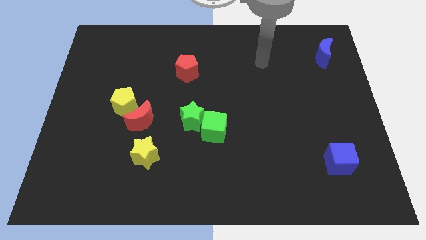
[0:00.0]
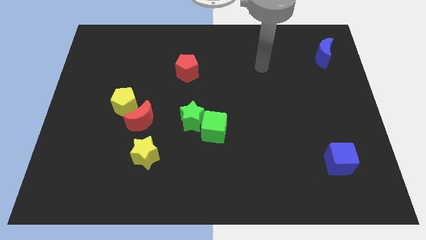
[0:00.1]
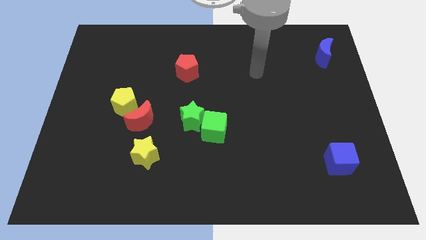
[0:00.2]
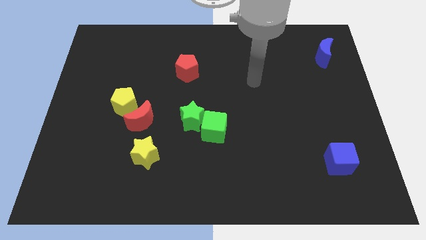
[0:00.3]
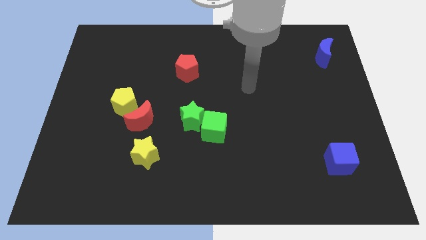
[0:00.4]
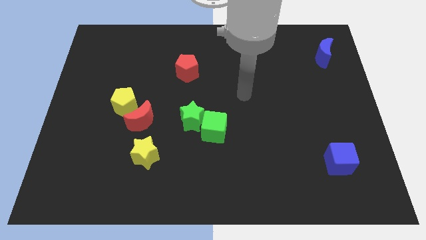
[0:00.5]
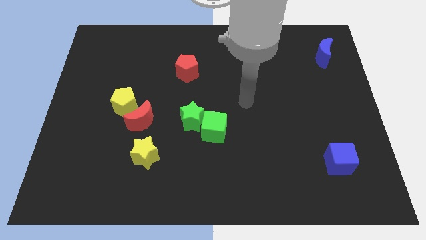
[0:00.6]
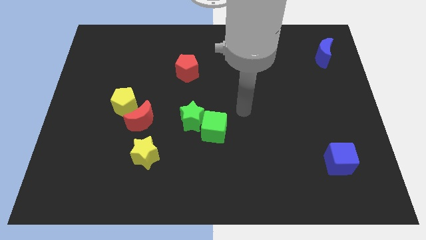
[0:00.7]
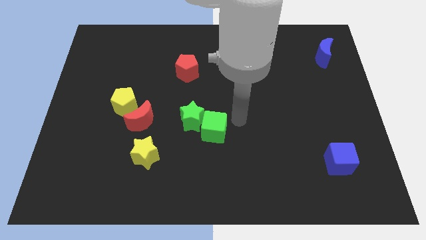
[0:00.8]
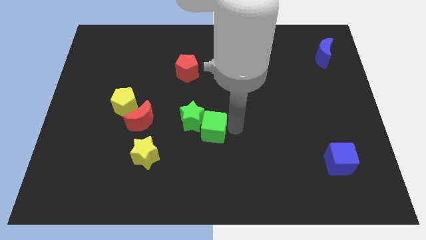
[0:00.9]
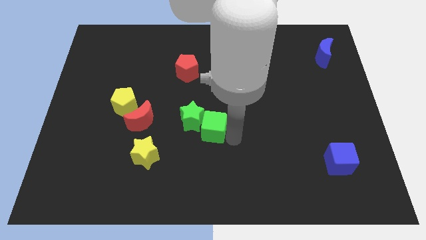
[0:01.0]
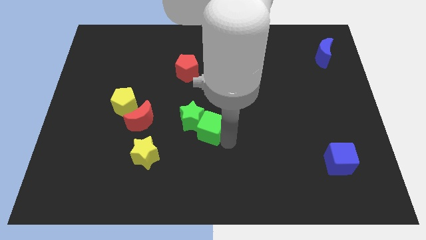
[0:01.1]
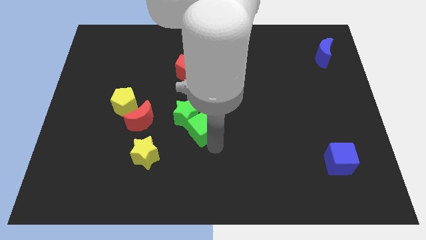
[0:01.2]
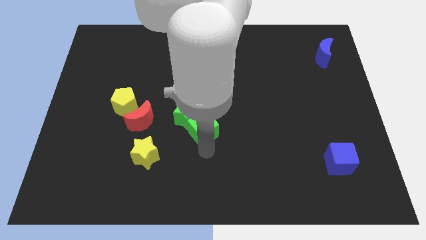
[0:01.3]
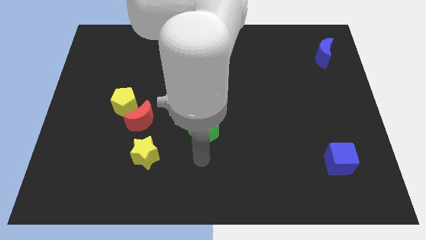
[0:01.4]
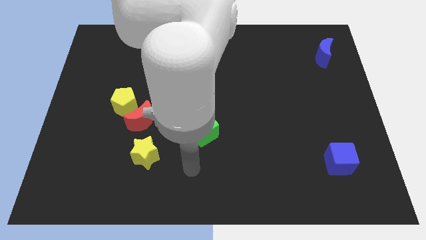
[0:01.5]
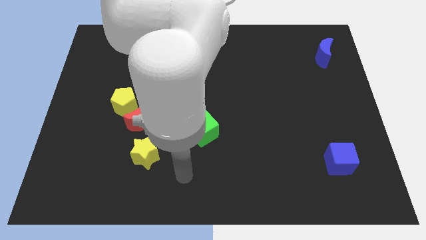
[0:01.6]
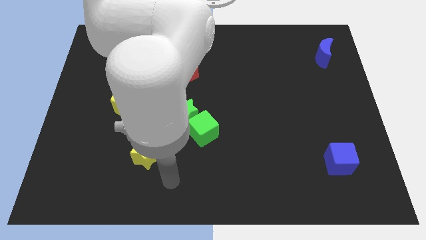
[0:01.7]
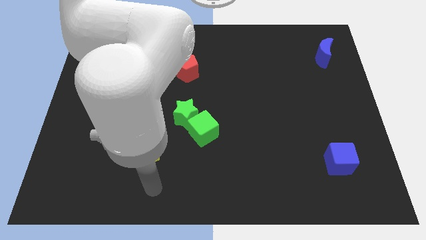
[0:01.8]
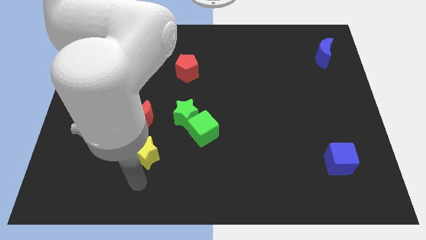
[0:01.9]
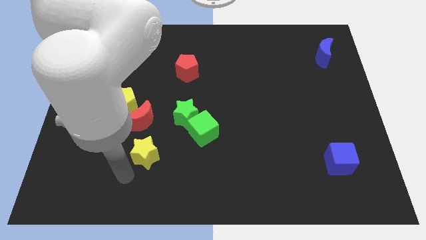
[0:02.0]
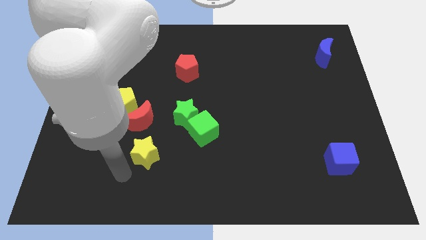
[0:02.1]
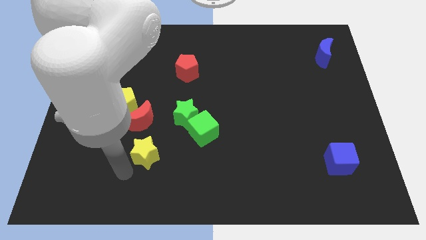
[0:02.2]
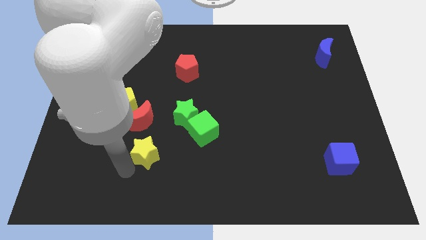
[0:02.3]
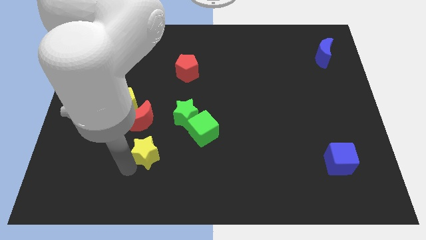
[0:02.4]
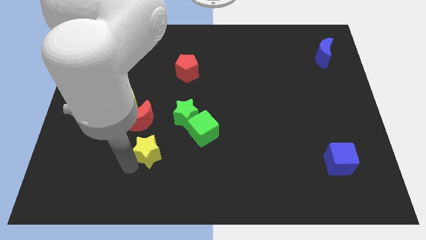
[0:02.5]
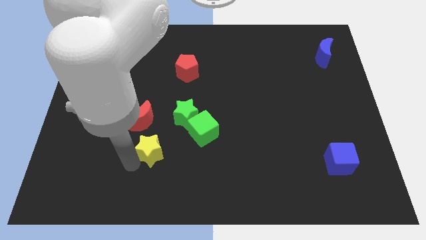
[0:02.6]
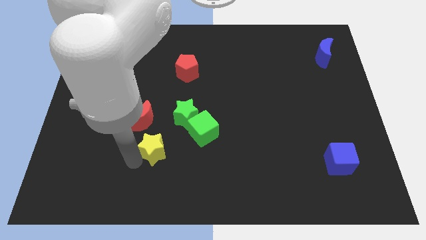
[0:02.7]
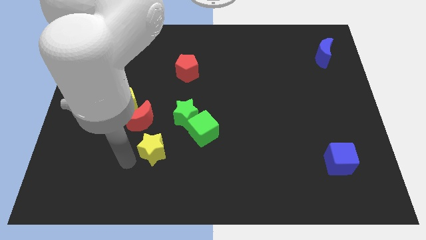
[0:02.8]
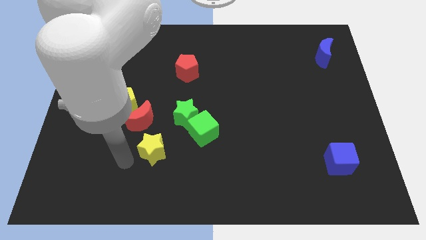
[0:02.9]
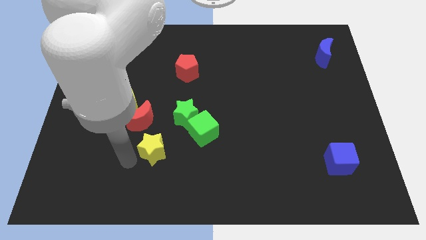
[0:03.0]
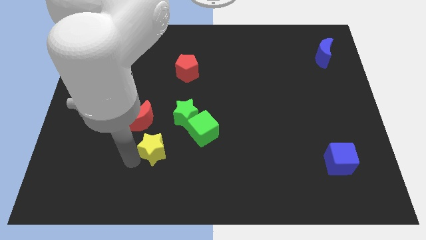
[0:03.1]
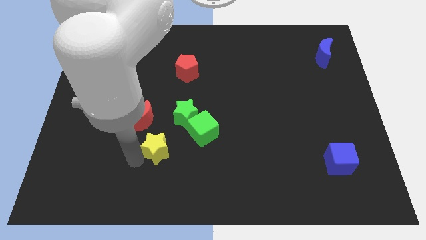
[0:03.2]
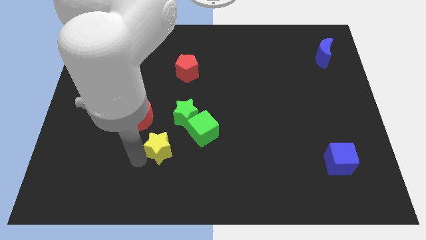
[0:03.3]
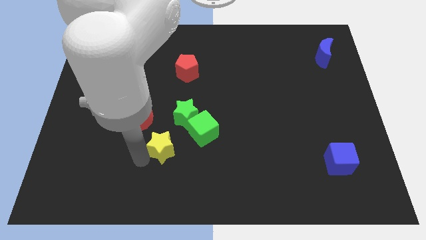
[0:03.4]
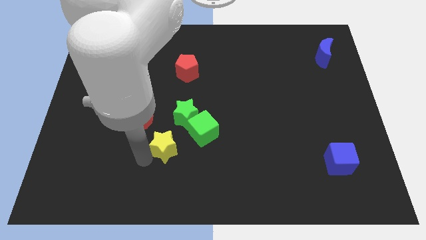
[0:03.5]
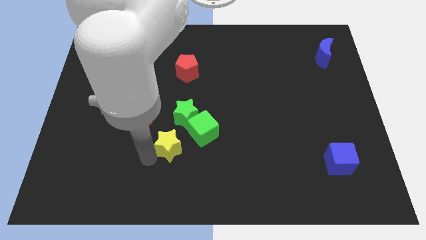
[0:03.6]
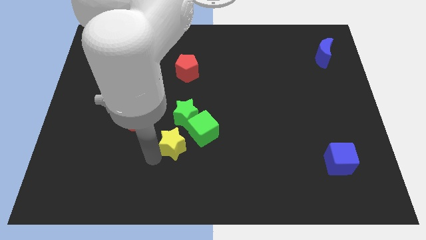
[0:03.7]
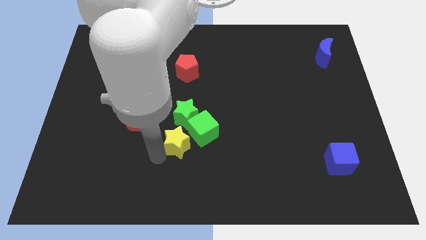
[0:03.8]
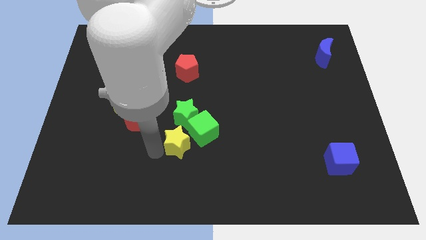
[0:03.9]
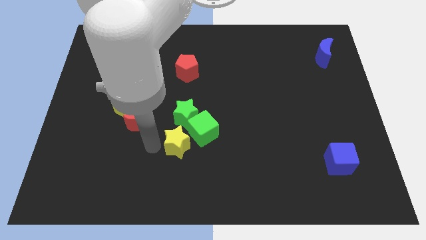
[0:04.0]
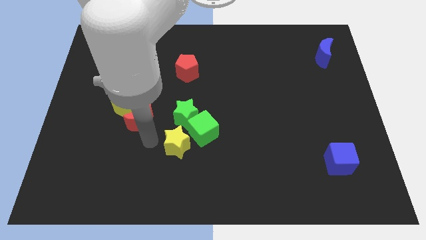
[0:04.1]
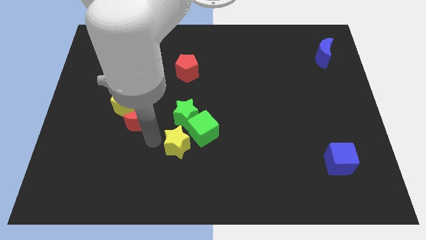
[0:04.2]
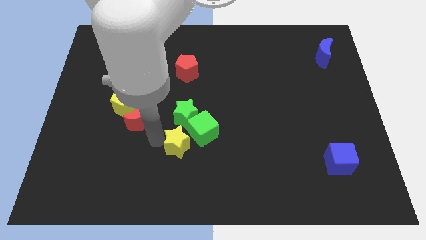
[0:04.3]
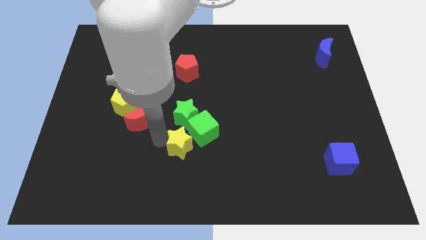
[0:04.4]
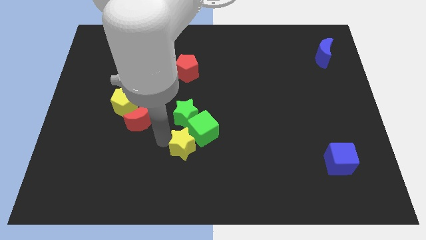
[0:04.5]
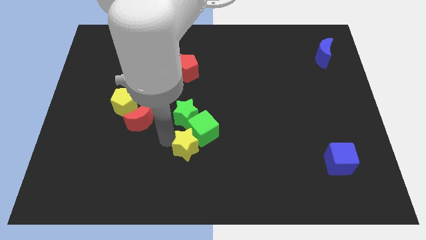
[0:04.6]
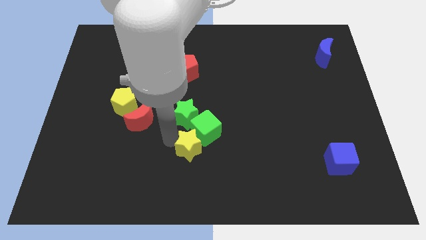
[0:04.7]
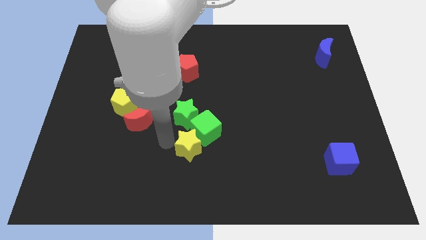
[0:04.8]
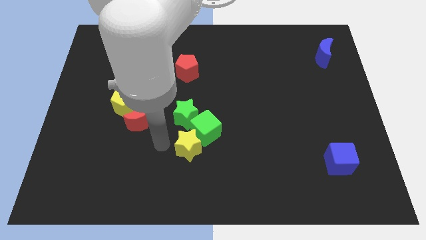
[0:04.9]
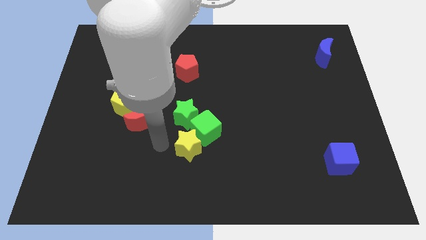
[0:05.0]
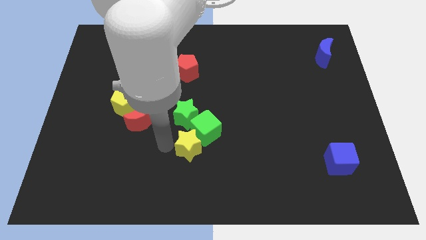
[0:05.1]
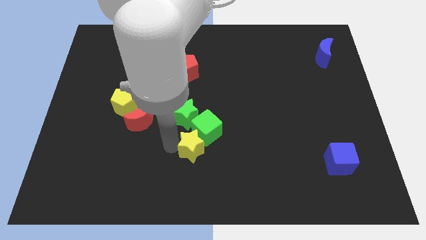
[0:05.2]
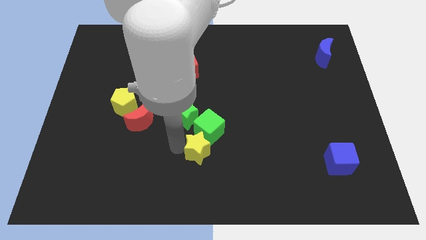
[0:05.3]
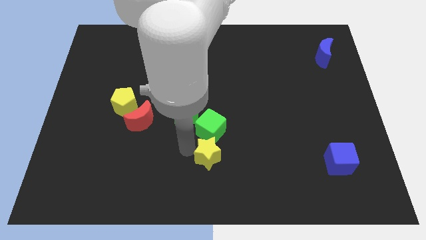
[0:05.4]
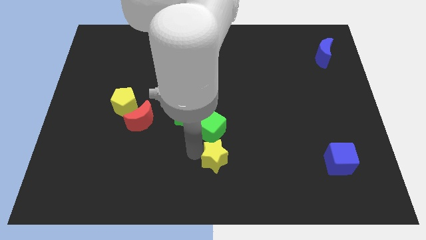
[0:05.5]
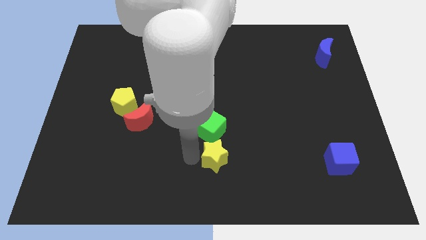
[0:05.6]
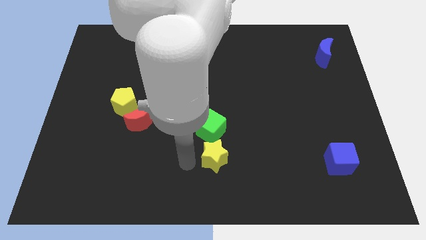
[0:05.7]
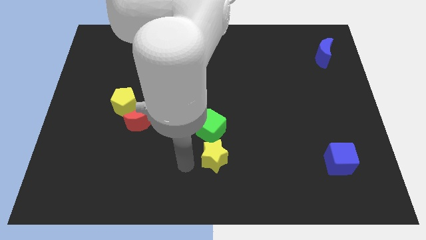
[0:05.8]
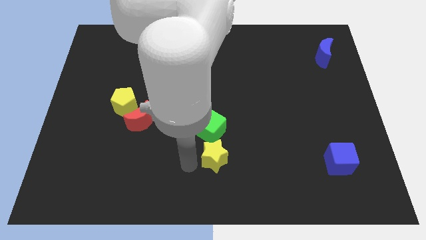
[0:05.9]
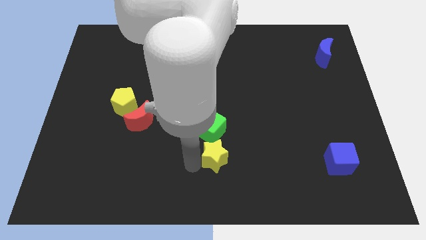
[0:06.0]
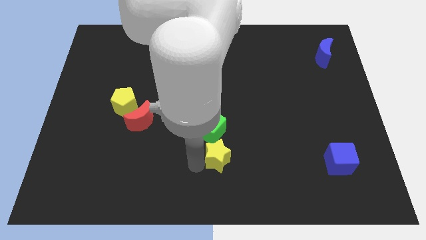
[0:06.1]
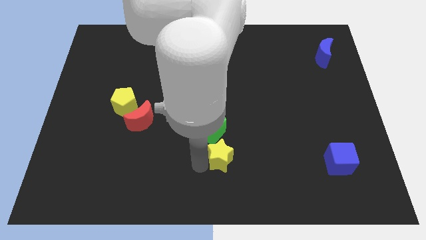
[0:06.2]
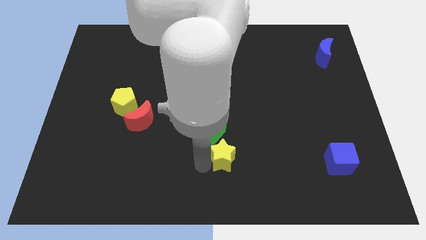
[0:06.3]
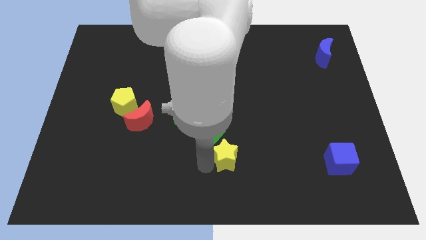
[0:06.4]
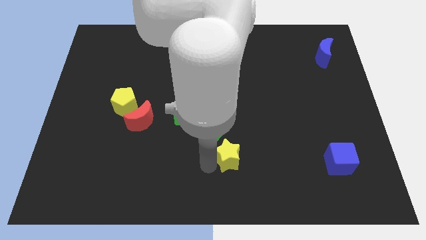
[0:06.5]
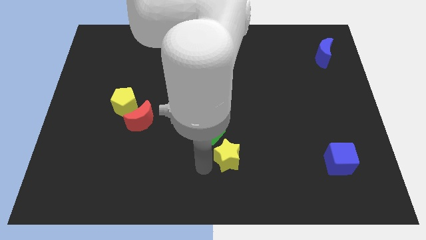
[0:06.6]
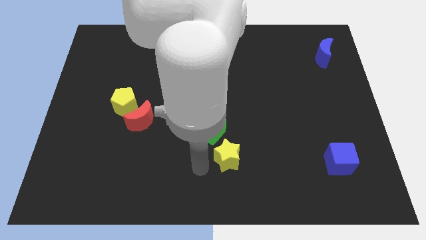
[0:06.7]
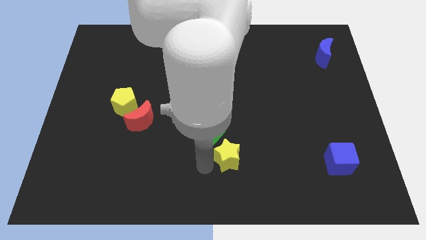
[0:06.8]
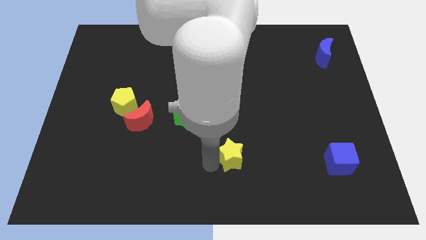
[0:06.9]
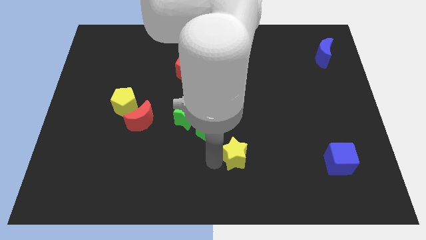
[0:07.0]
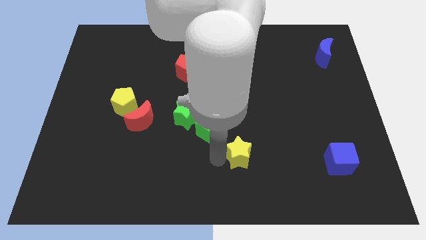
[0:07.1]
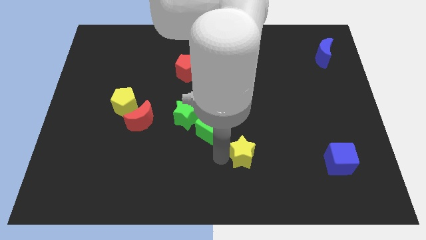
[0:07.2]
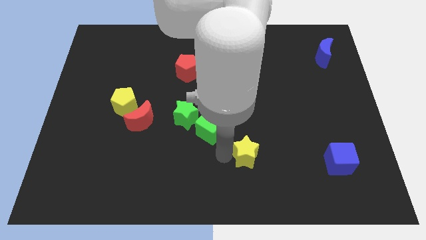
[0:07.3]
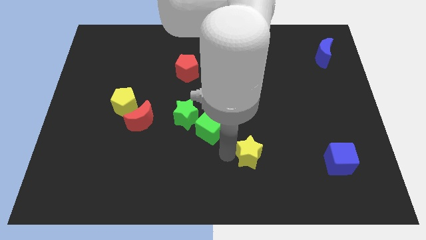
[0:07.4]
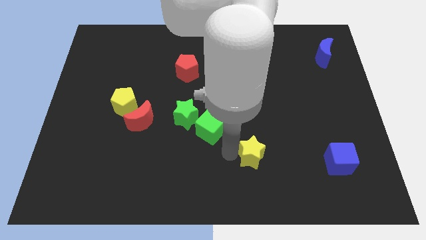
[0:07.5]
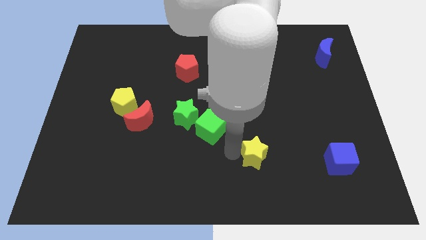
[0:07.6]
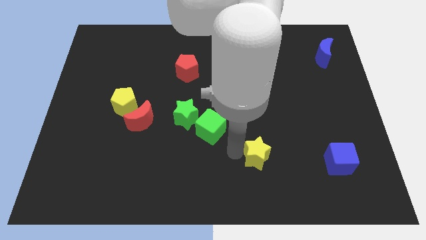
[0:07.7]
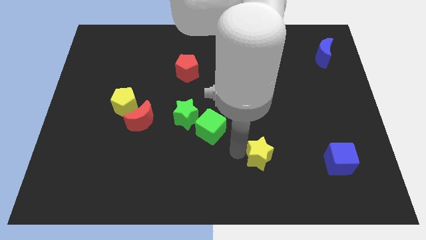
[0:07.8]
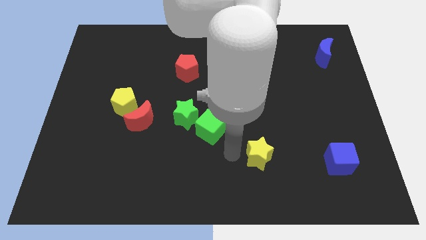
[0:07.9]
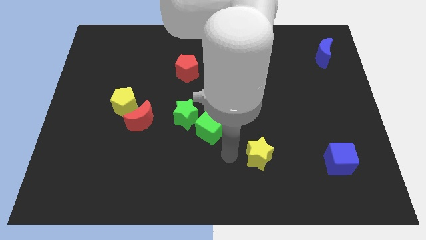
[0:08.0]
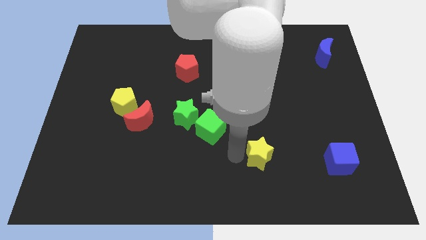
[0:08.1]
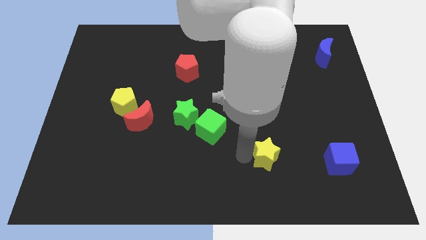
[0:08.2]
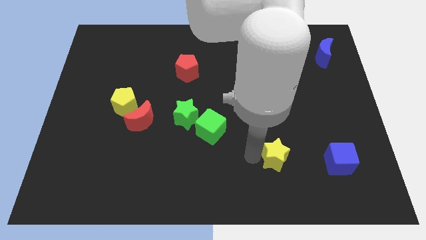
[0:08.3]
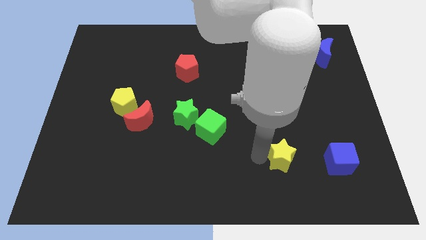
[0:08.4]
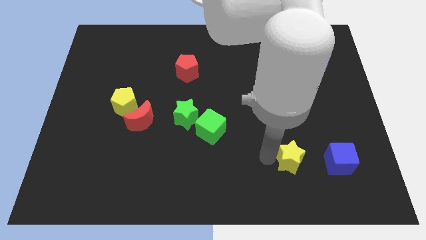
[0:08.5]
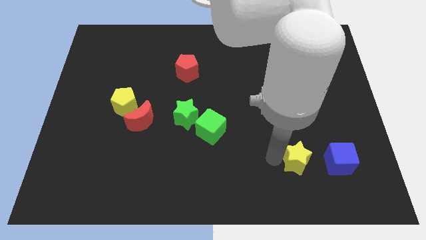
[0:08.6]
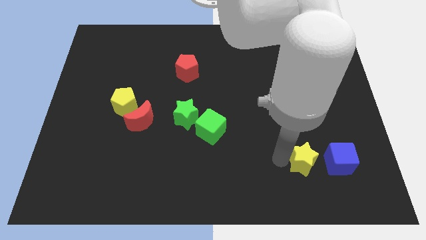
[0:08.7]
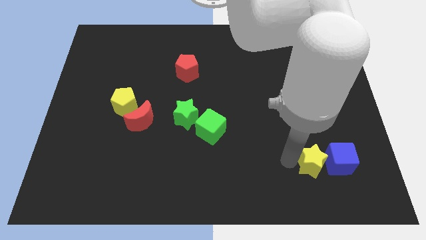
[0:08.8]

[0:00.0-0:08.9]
push the yellow star next to the blue cube
